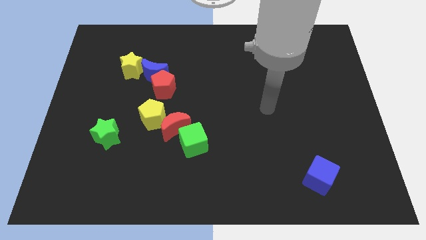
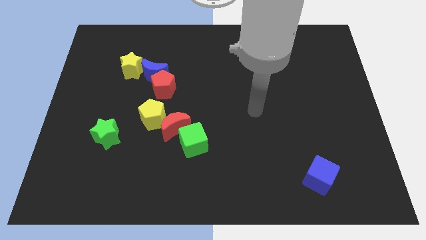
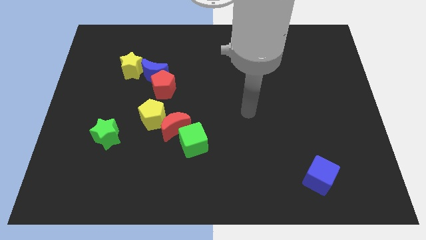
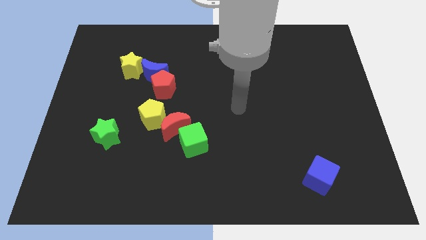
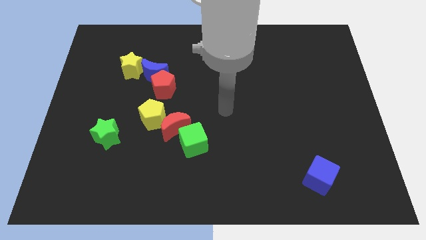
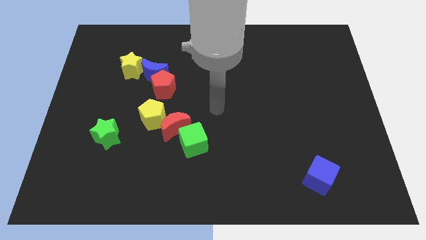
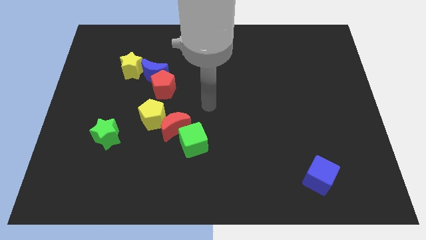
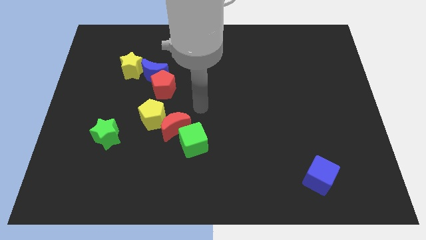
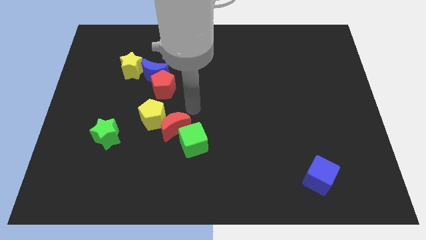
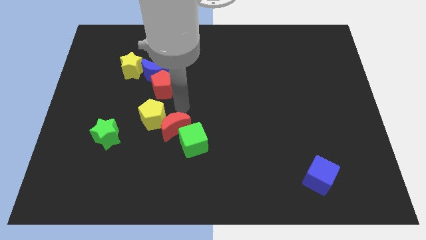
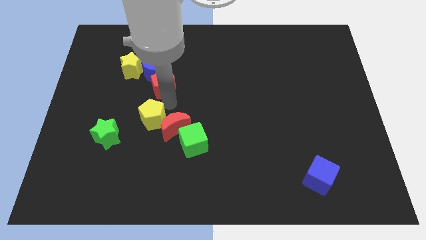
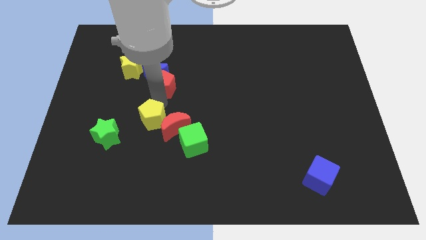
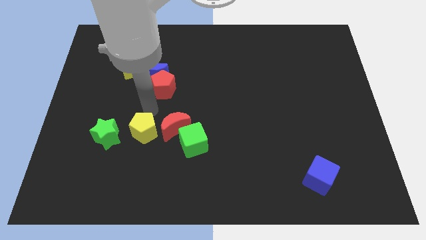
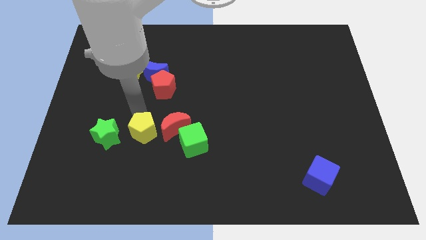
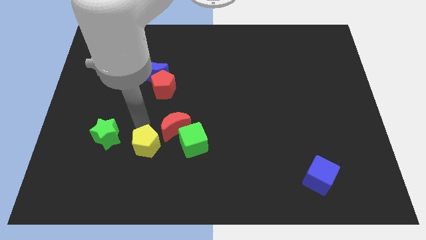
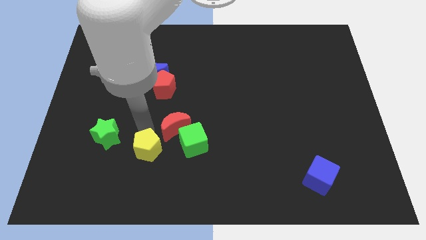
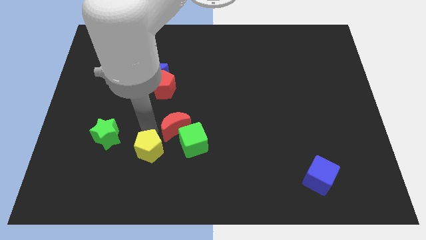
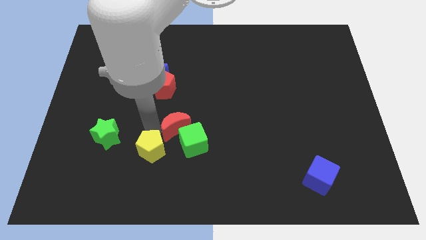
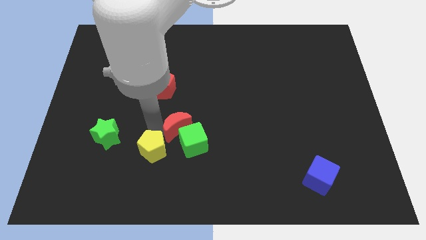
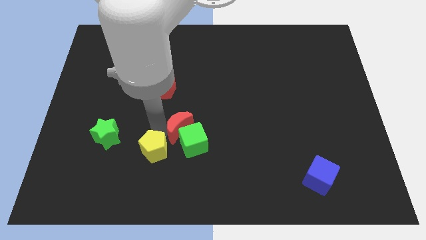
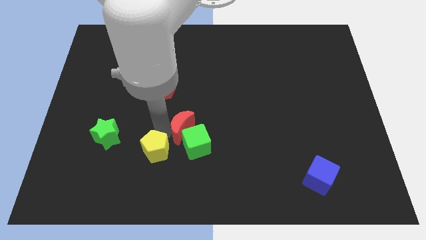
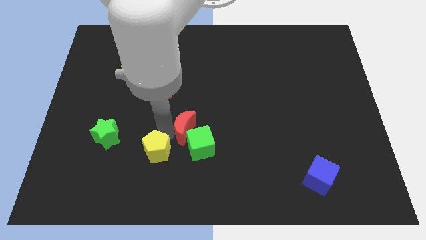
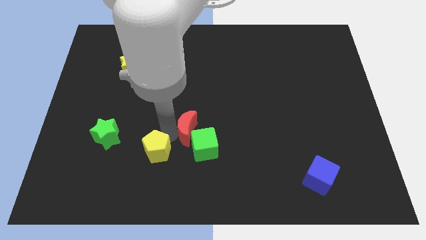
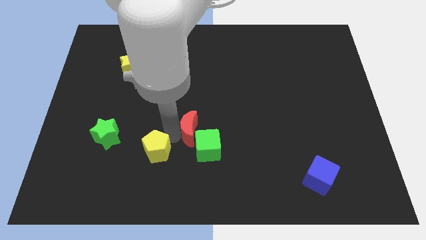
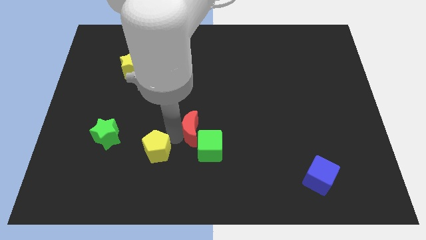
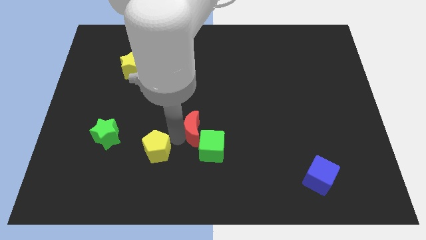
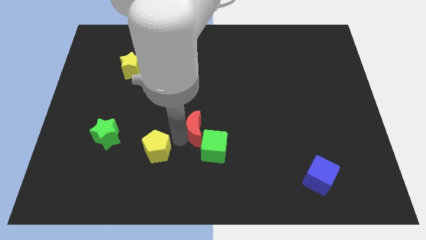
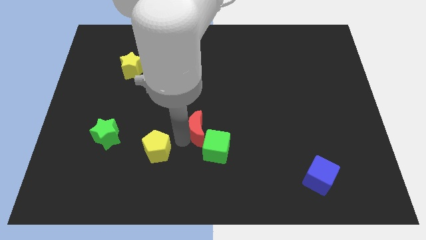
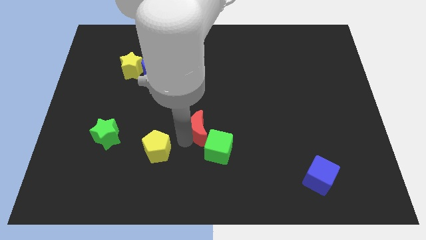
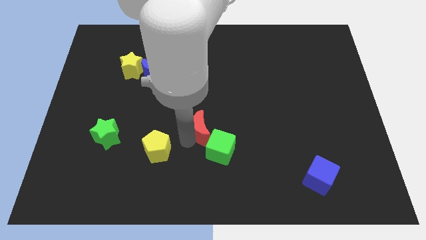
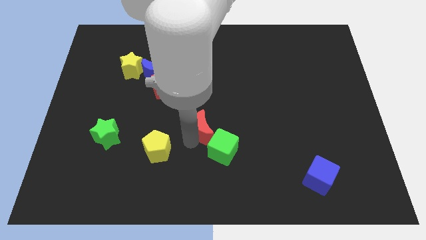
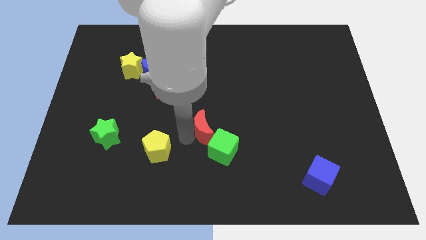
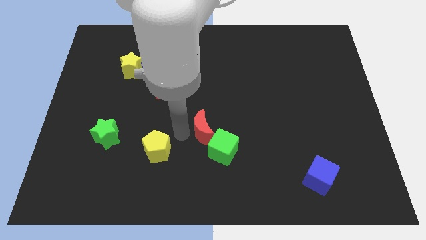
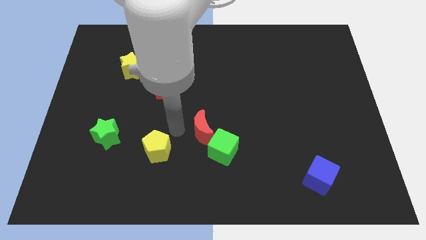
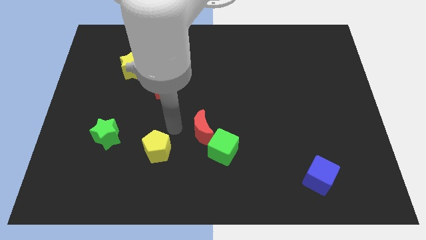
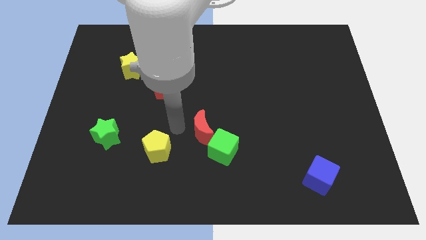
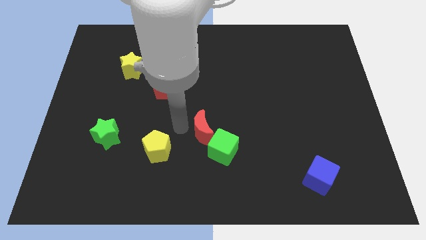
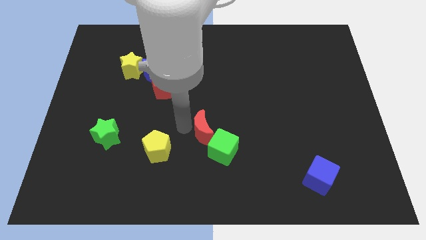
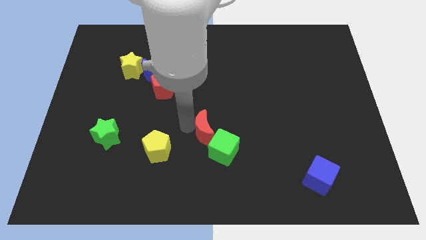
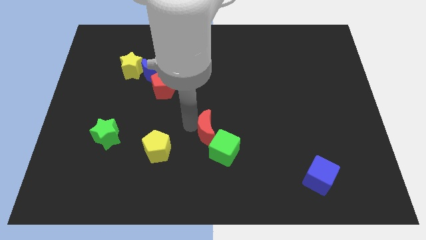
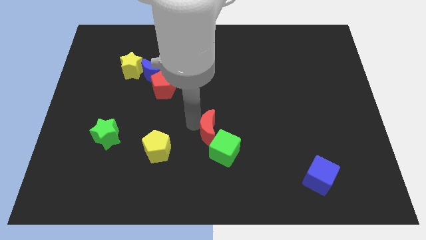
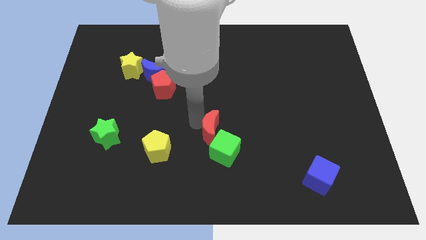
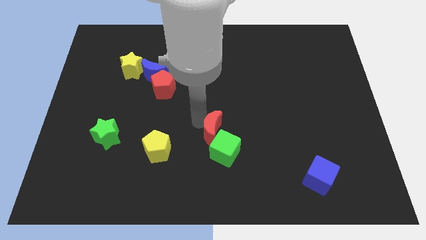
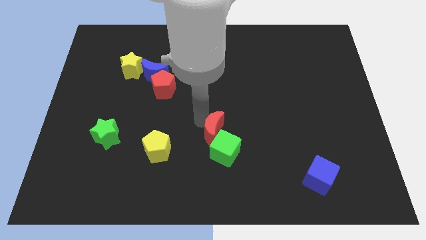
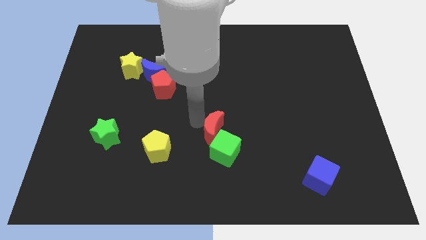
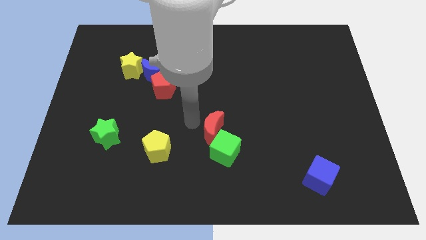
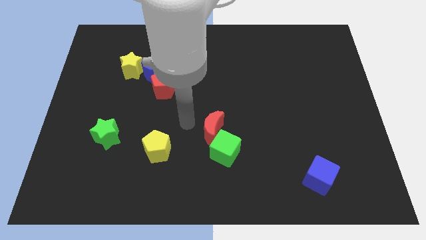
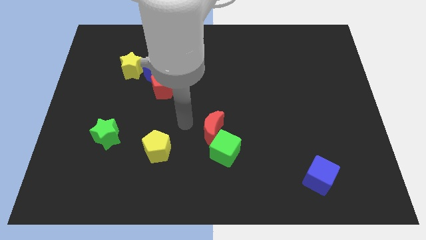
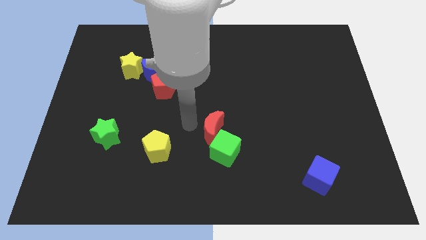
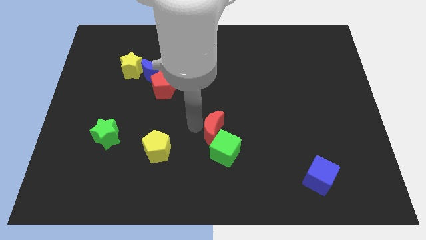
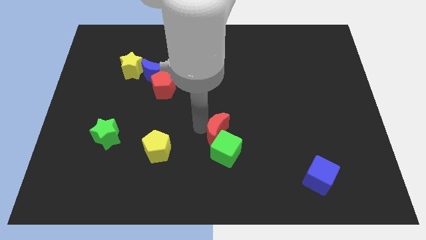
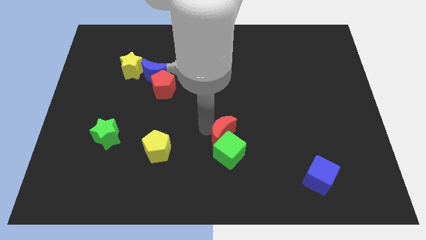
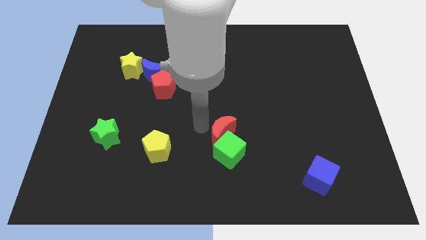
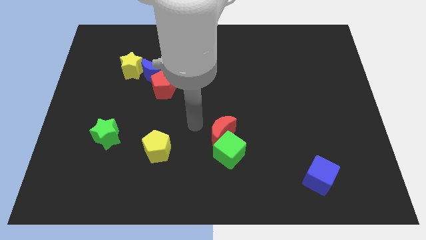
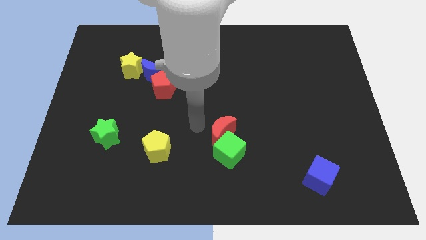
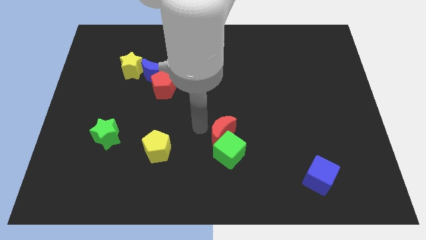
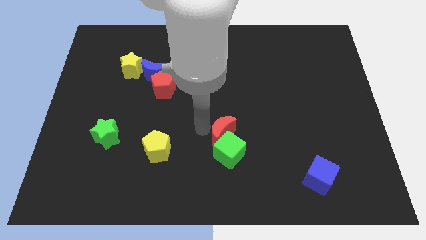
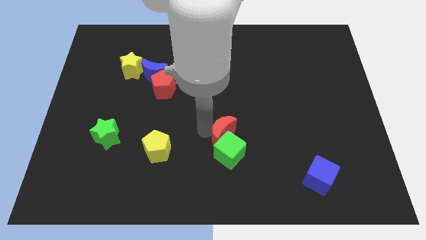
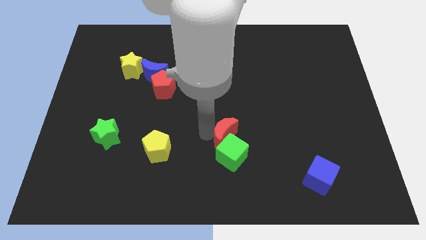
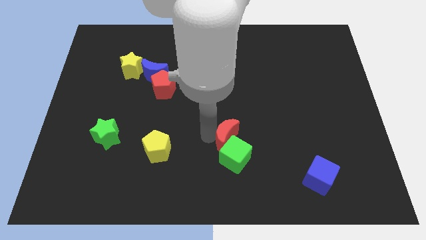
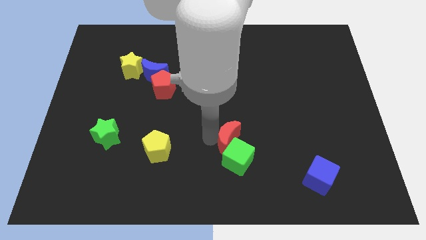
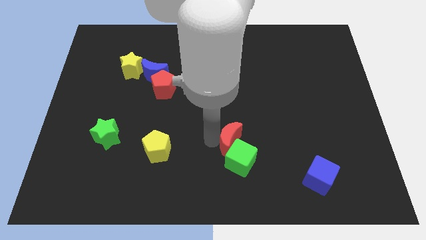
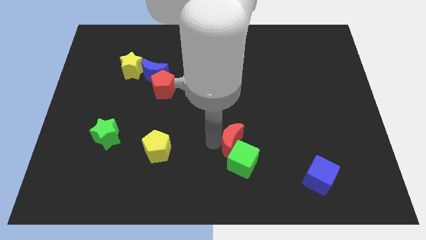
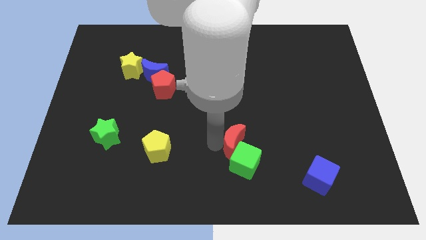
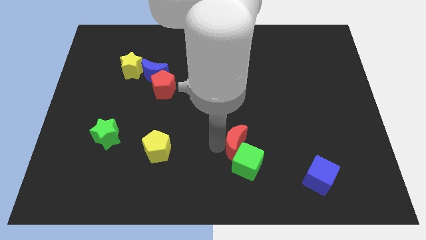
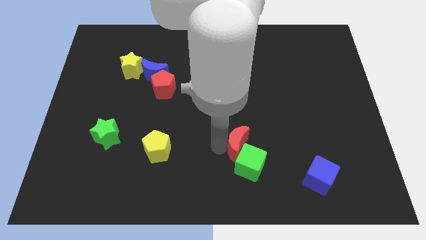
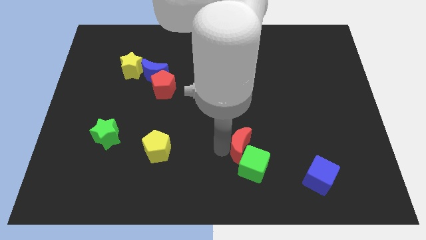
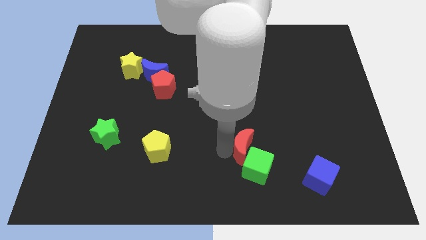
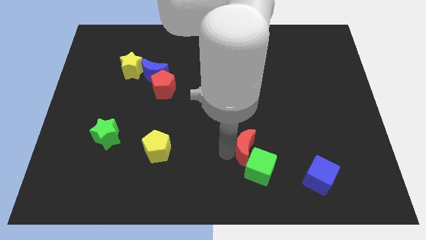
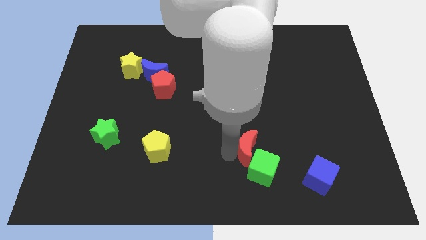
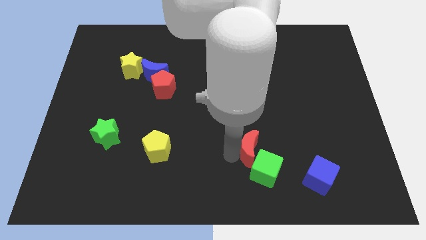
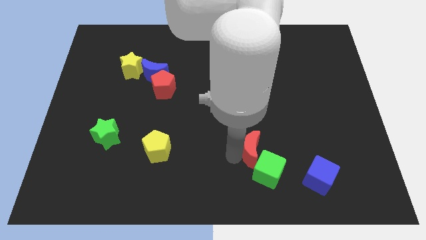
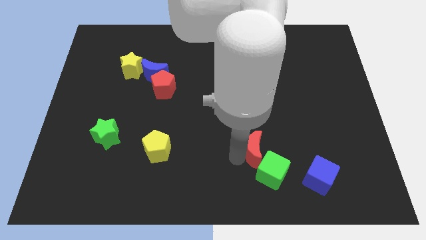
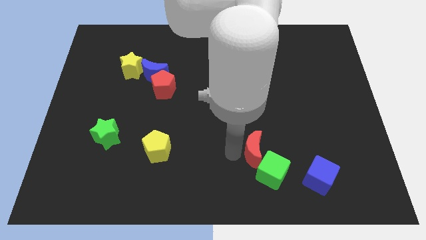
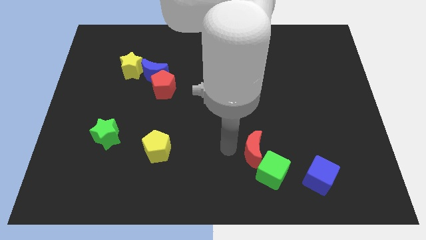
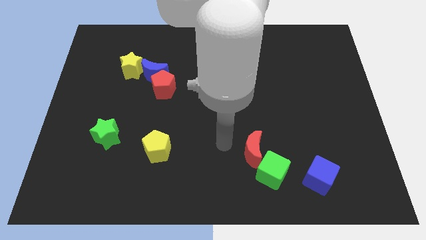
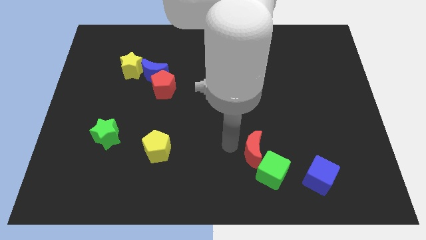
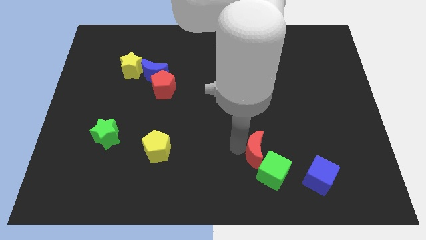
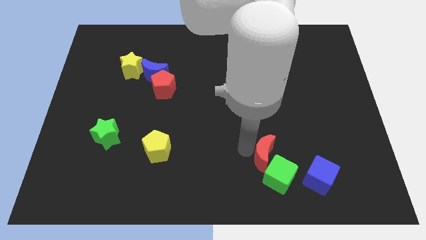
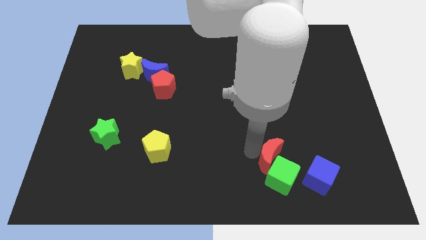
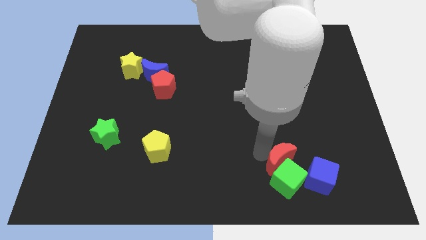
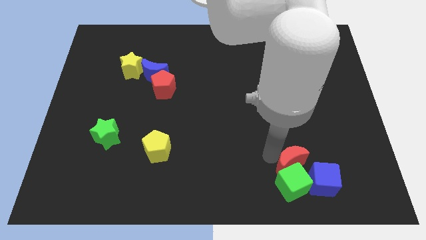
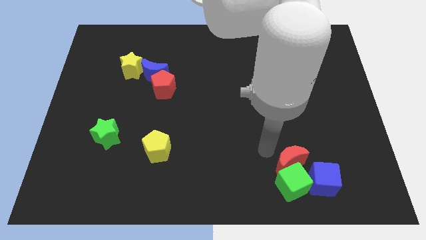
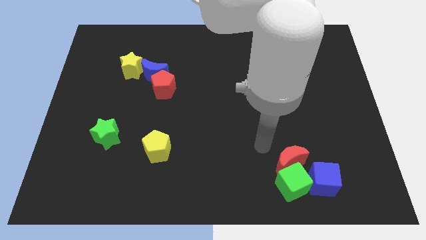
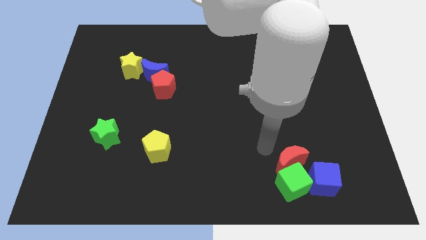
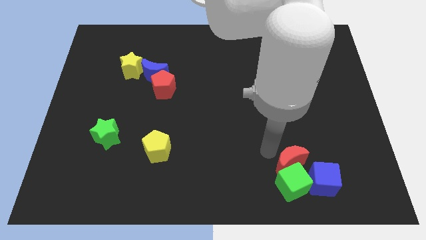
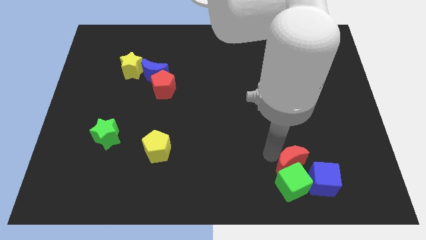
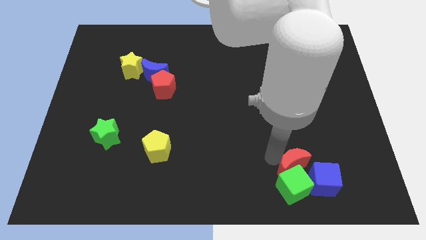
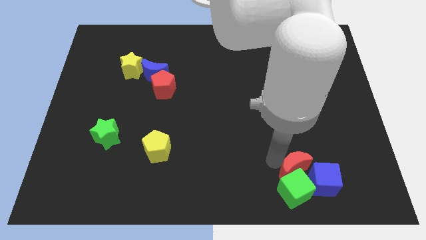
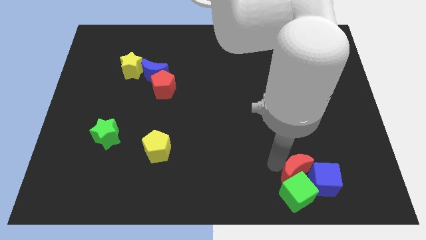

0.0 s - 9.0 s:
move the red moon to the blue cube
